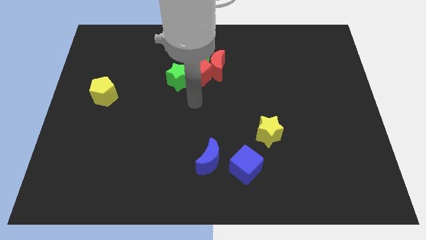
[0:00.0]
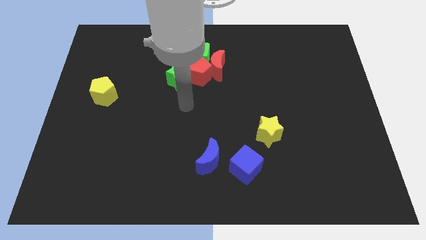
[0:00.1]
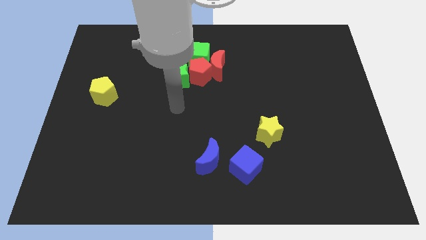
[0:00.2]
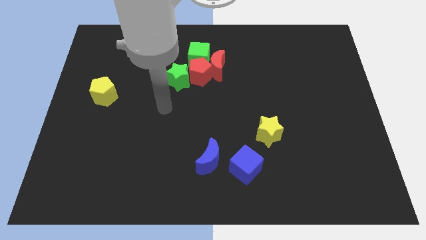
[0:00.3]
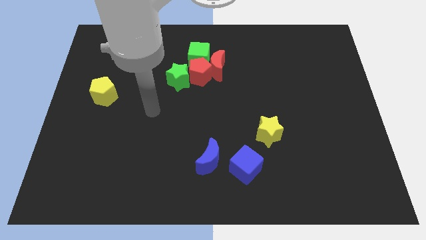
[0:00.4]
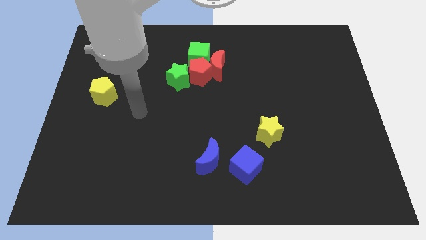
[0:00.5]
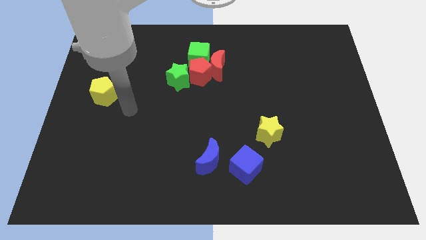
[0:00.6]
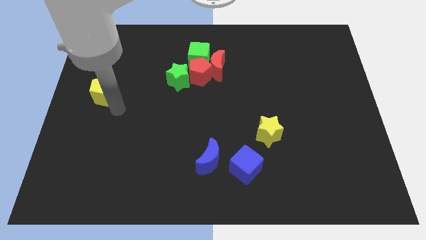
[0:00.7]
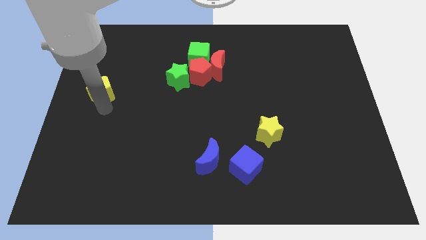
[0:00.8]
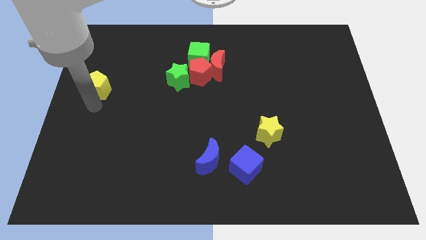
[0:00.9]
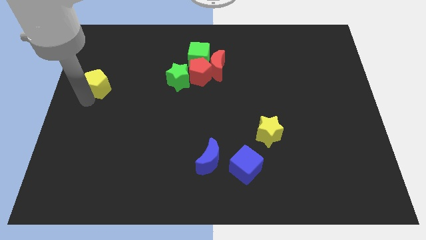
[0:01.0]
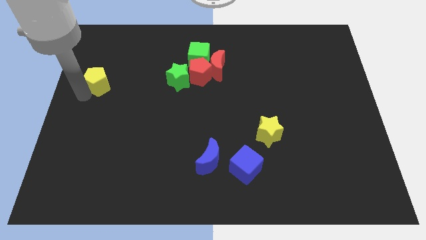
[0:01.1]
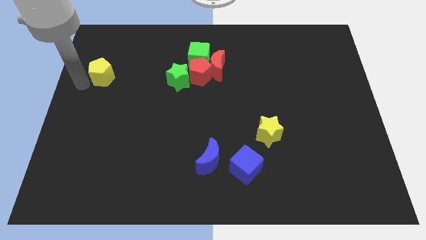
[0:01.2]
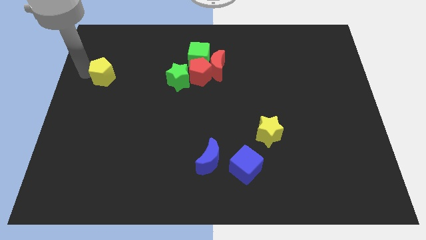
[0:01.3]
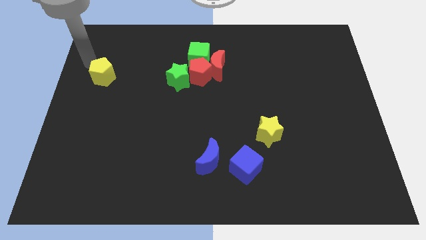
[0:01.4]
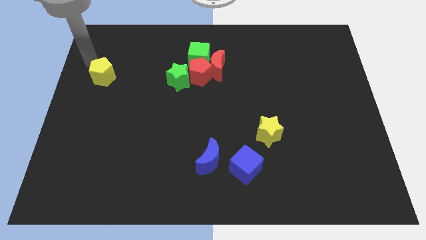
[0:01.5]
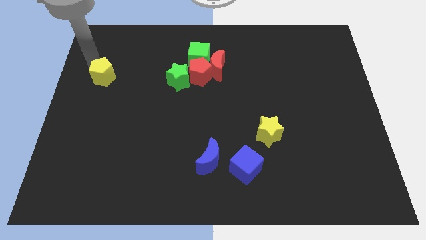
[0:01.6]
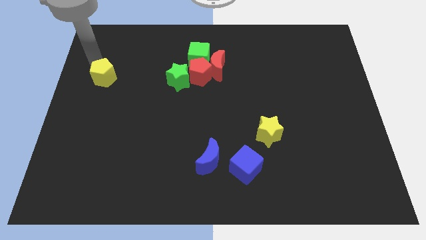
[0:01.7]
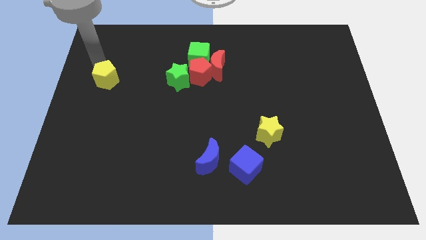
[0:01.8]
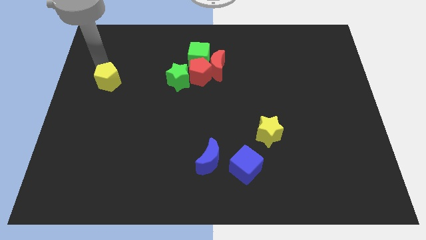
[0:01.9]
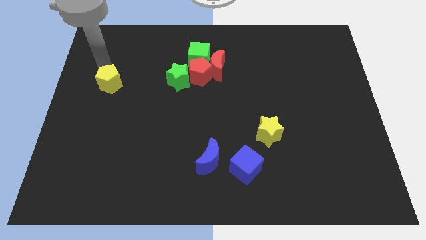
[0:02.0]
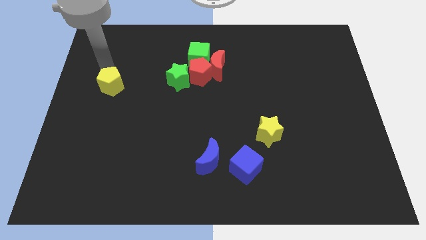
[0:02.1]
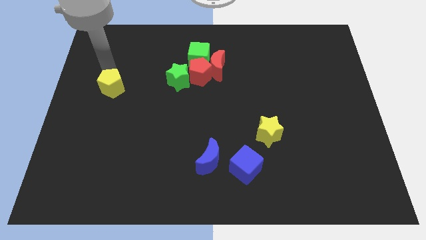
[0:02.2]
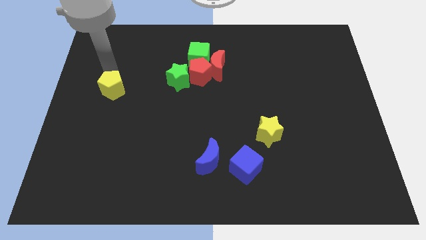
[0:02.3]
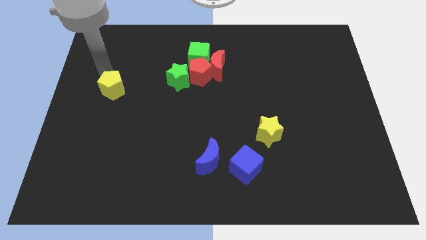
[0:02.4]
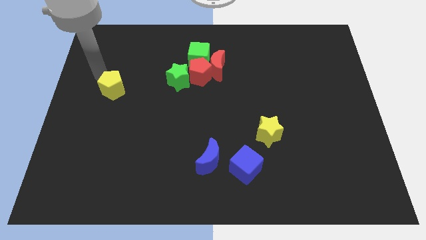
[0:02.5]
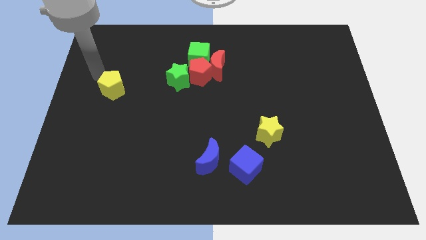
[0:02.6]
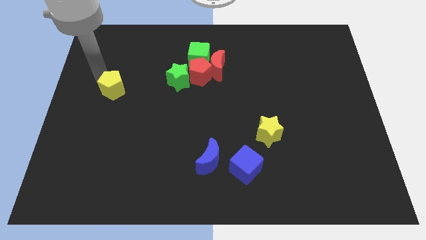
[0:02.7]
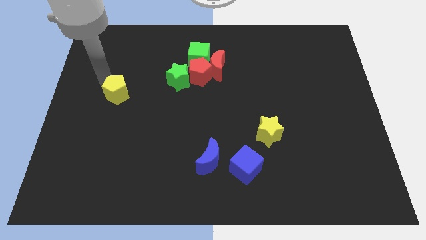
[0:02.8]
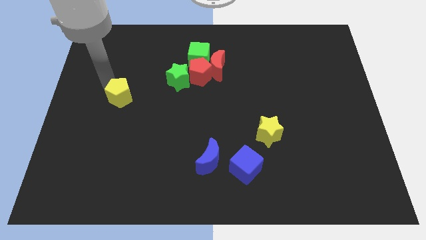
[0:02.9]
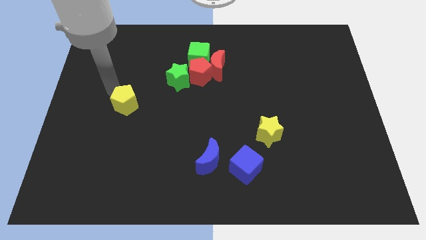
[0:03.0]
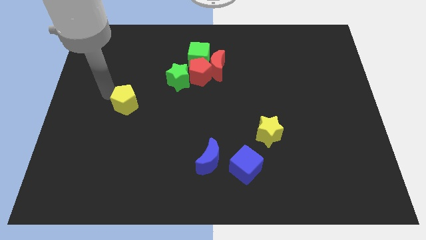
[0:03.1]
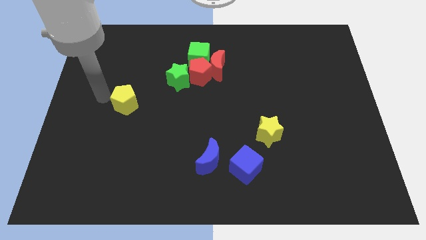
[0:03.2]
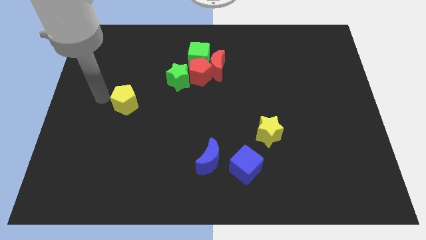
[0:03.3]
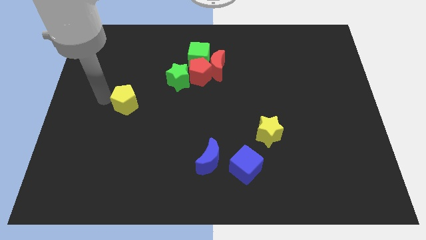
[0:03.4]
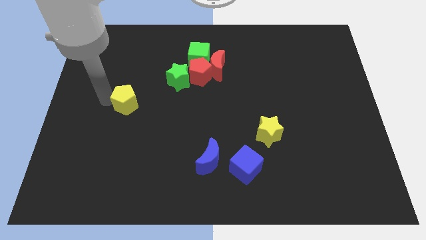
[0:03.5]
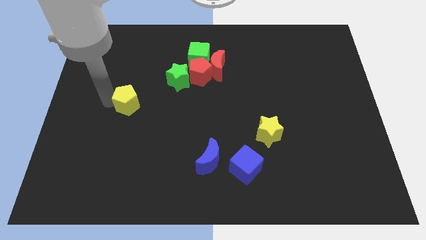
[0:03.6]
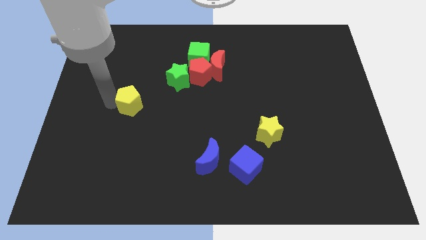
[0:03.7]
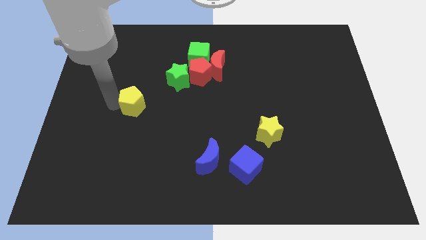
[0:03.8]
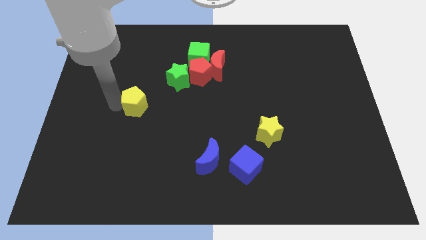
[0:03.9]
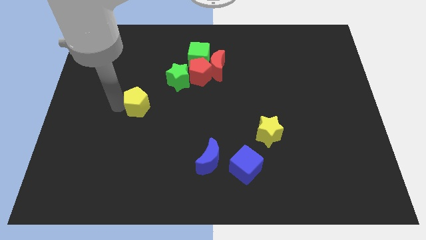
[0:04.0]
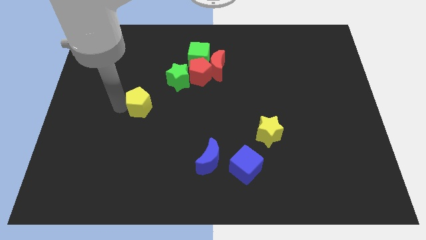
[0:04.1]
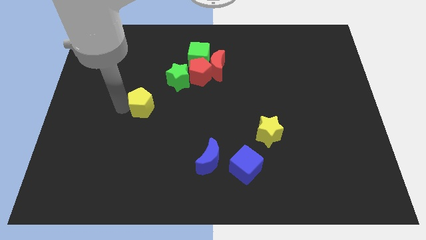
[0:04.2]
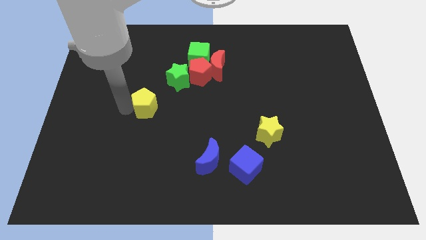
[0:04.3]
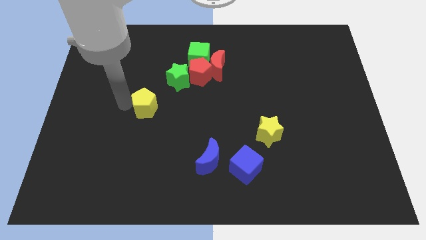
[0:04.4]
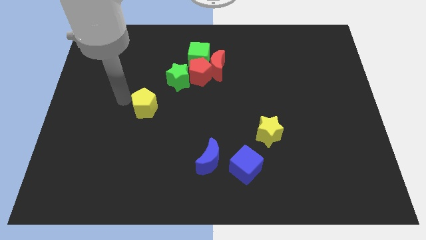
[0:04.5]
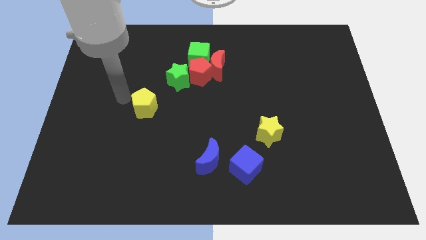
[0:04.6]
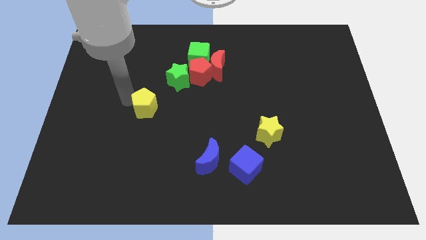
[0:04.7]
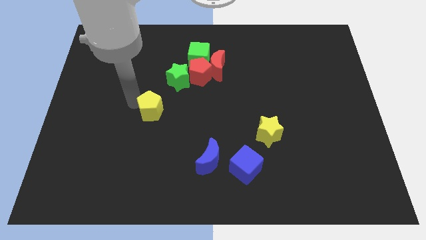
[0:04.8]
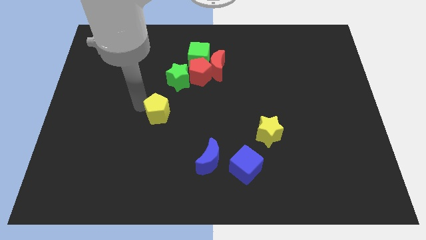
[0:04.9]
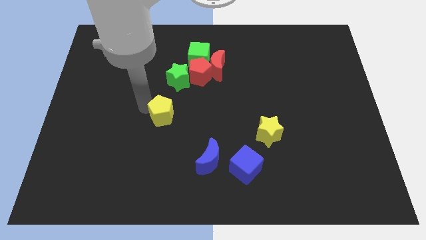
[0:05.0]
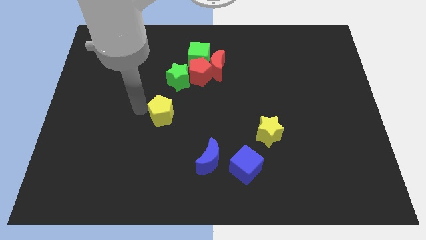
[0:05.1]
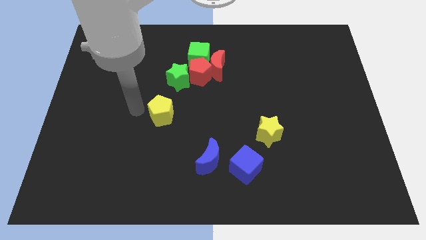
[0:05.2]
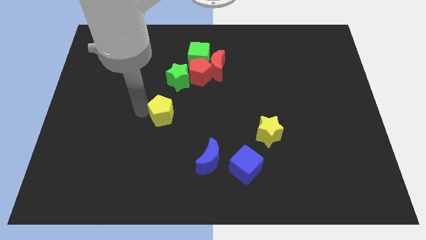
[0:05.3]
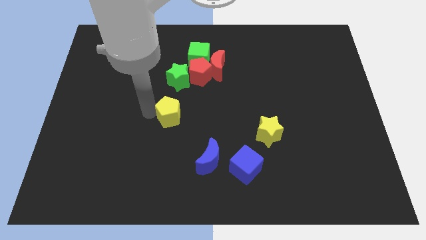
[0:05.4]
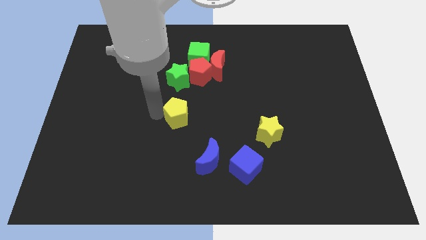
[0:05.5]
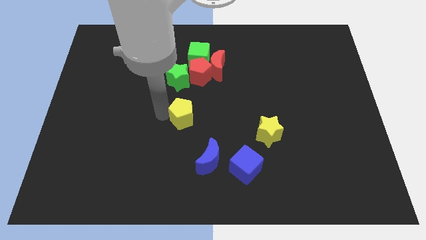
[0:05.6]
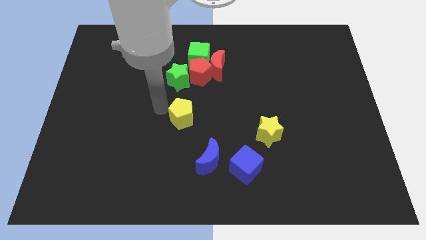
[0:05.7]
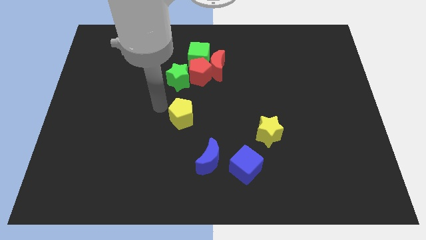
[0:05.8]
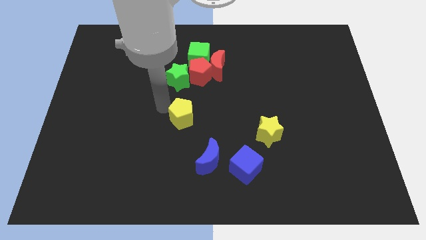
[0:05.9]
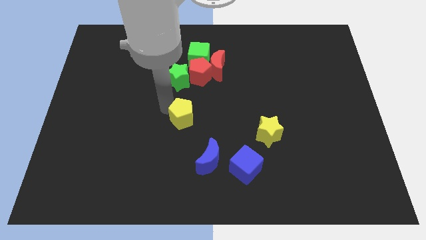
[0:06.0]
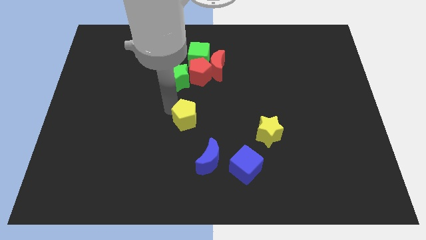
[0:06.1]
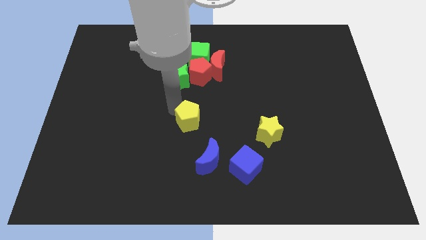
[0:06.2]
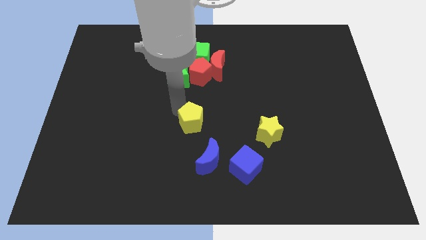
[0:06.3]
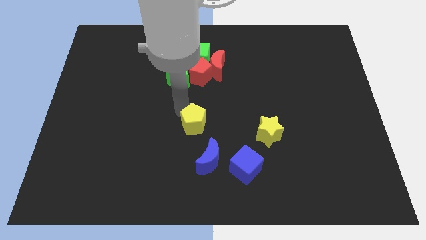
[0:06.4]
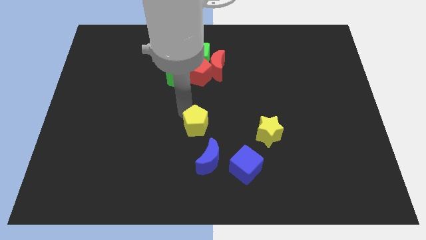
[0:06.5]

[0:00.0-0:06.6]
push the yellow pentagon just left of the yellow star

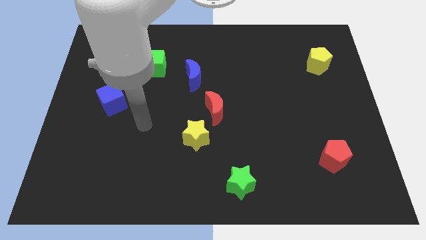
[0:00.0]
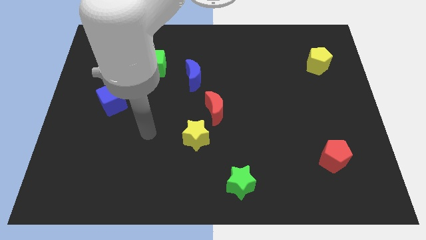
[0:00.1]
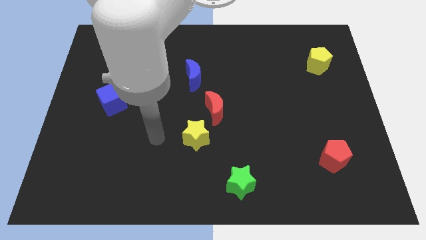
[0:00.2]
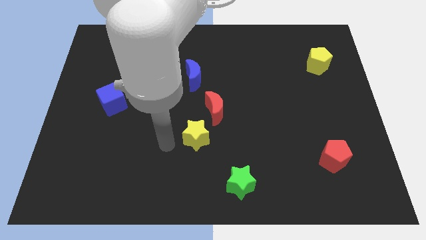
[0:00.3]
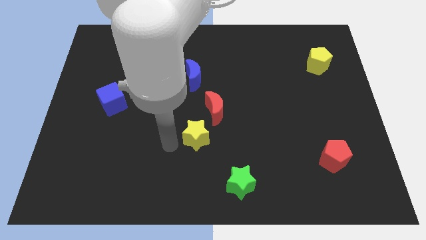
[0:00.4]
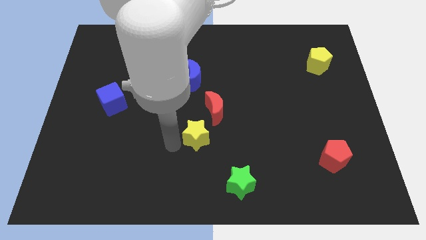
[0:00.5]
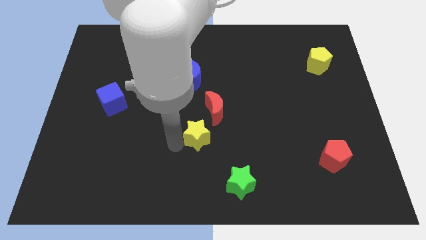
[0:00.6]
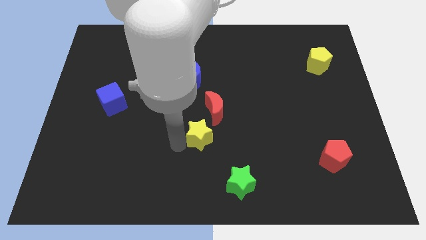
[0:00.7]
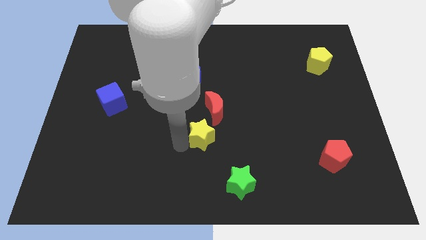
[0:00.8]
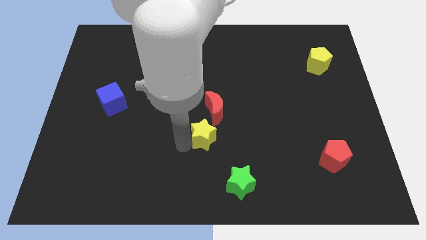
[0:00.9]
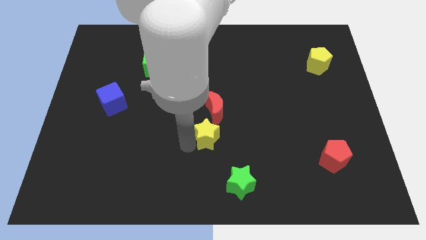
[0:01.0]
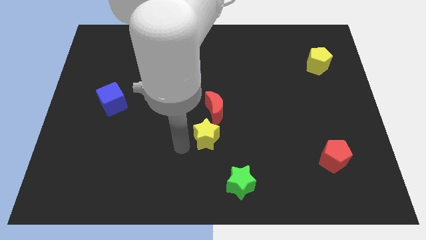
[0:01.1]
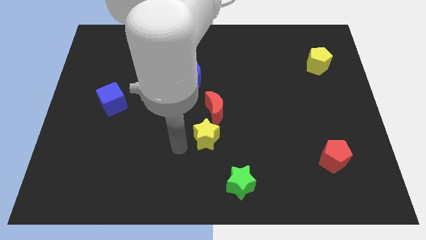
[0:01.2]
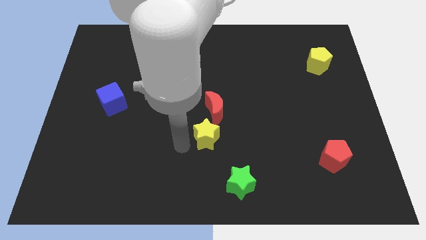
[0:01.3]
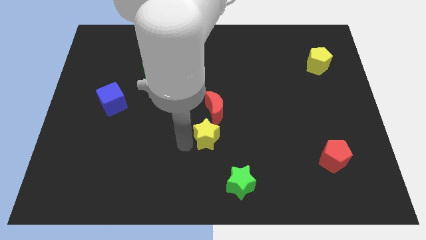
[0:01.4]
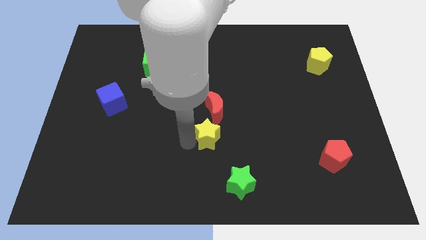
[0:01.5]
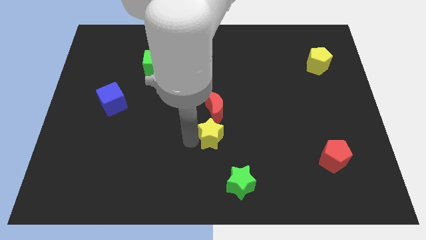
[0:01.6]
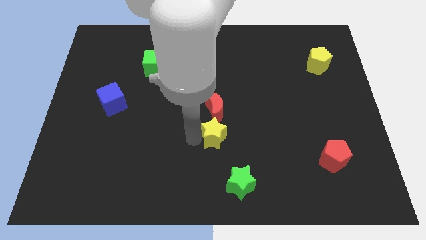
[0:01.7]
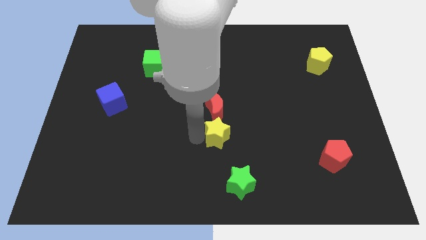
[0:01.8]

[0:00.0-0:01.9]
put the yellow star to the bottom right of the red moon
